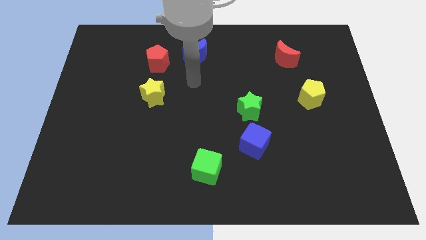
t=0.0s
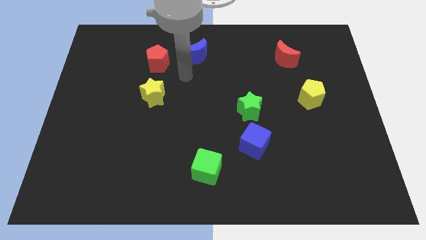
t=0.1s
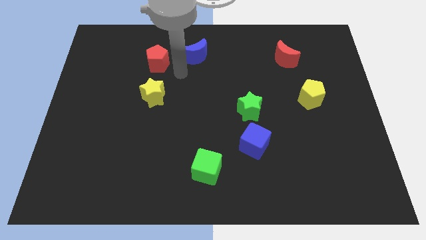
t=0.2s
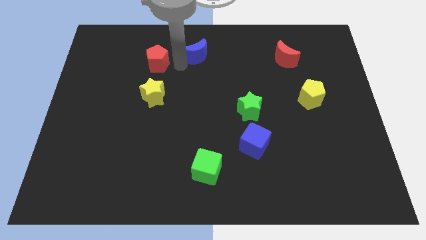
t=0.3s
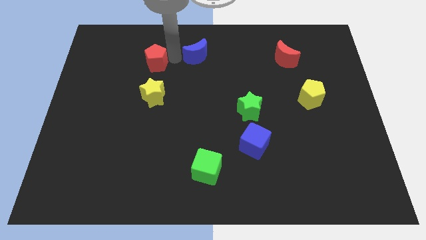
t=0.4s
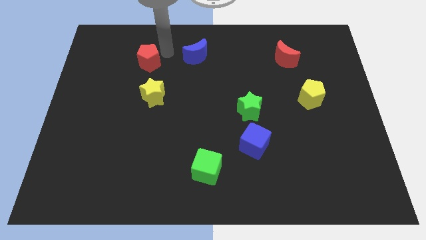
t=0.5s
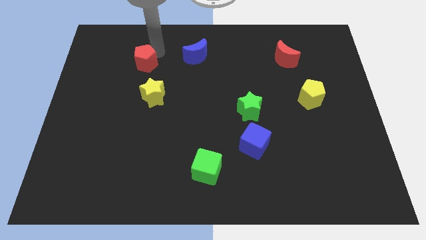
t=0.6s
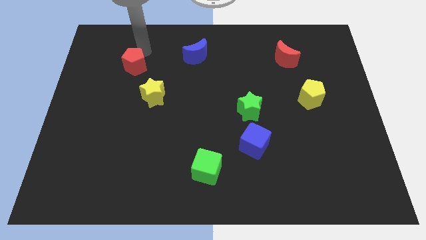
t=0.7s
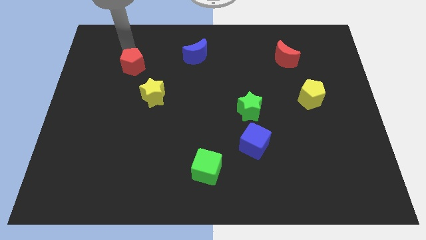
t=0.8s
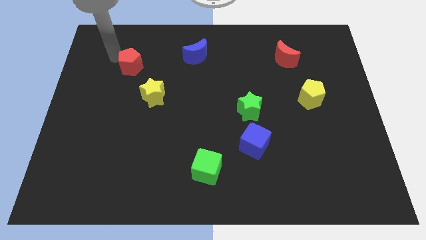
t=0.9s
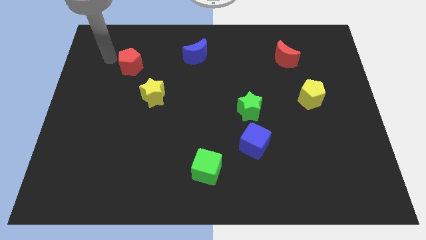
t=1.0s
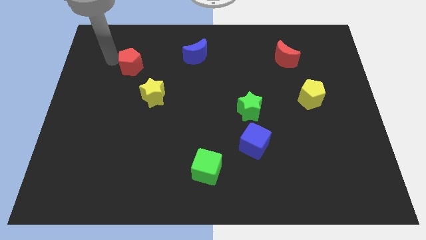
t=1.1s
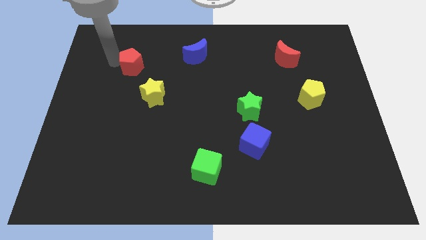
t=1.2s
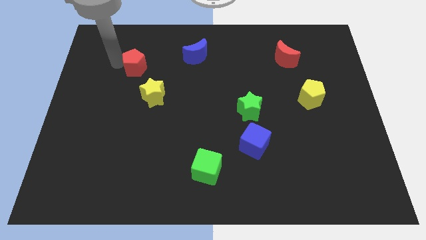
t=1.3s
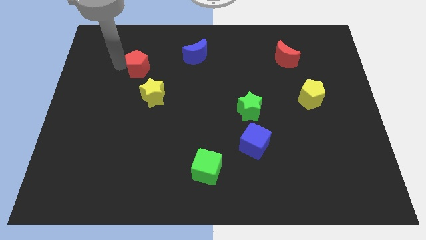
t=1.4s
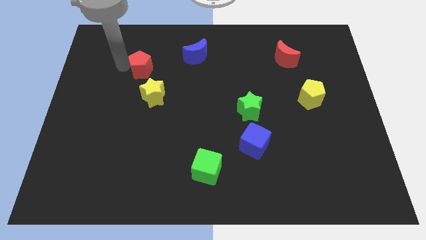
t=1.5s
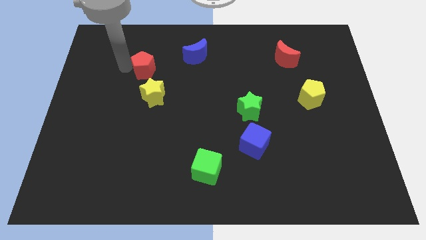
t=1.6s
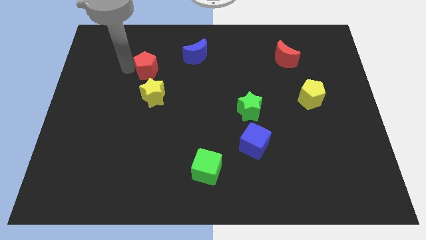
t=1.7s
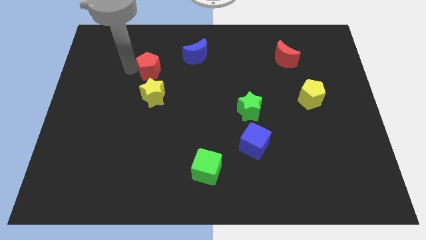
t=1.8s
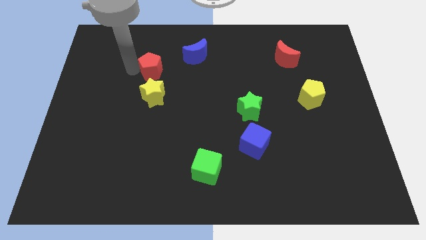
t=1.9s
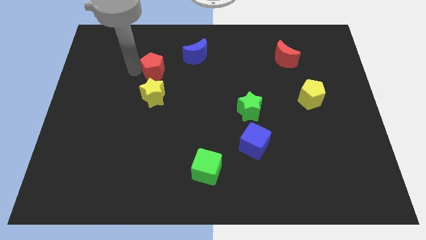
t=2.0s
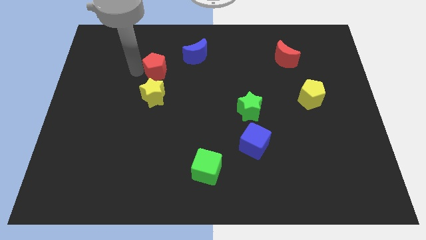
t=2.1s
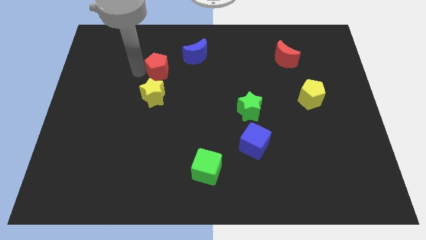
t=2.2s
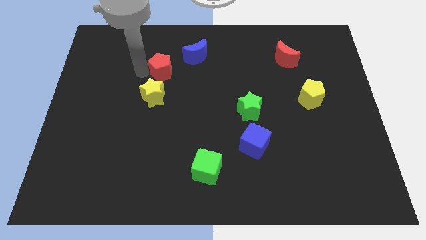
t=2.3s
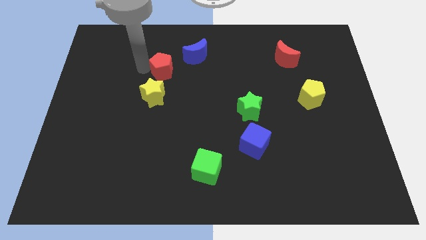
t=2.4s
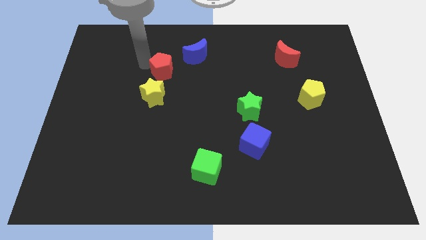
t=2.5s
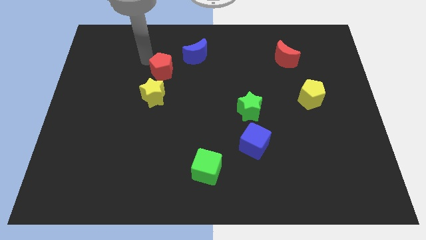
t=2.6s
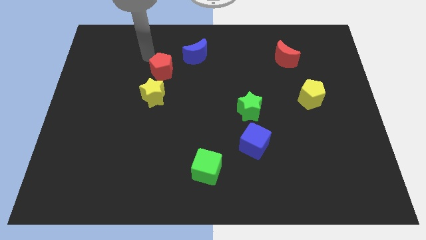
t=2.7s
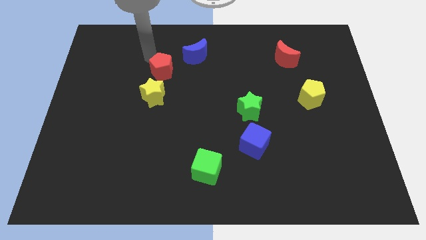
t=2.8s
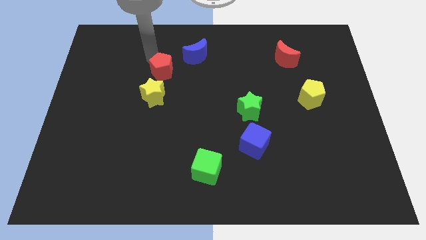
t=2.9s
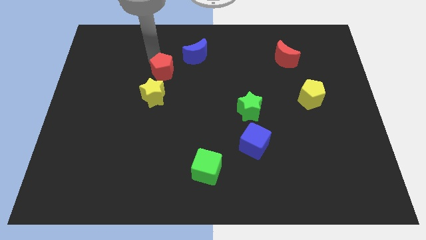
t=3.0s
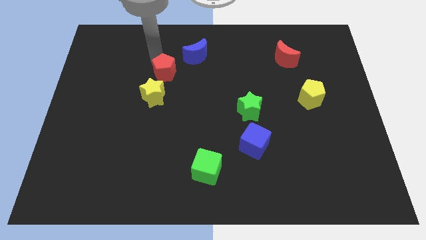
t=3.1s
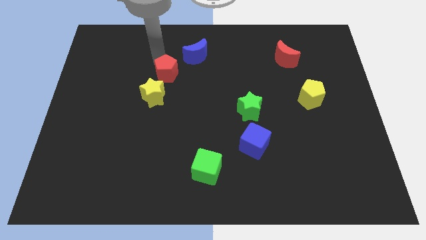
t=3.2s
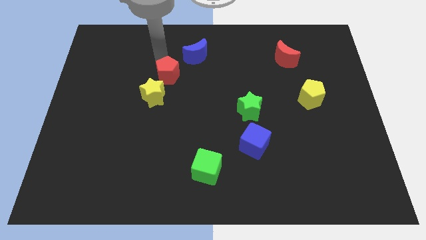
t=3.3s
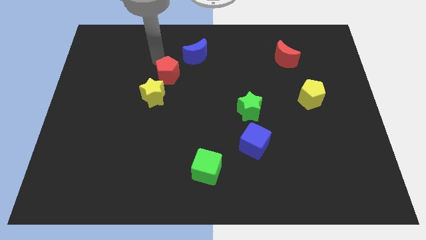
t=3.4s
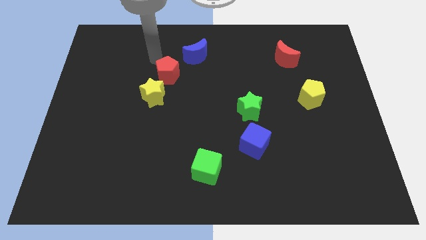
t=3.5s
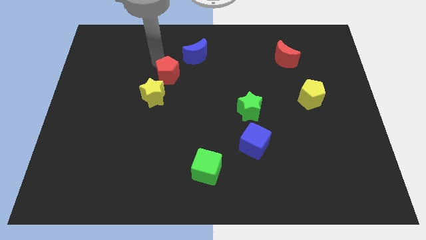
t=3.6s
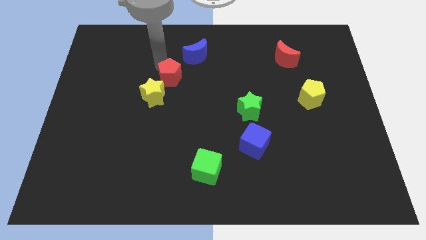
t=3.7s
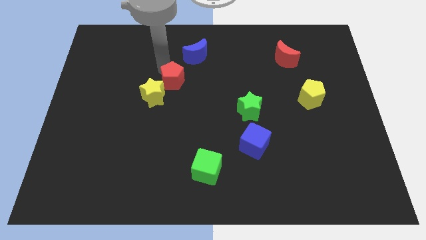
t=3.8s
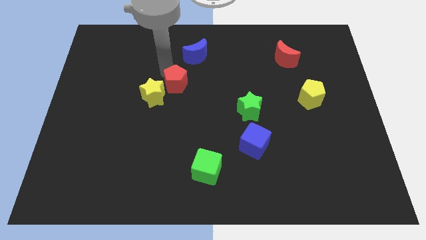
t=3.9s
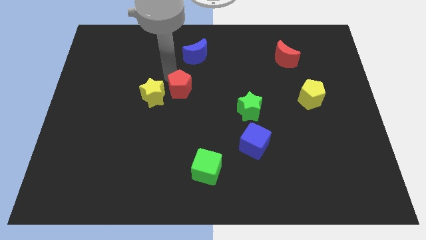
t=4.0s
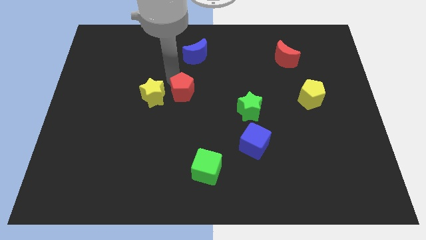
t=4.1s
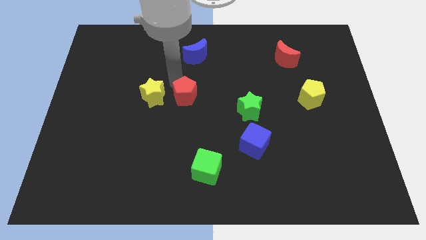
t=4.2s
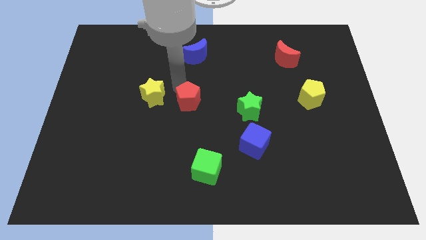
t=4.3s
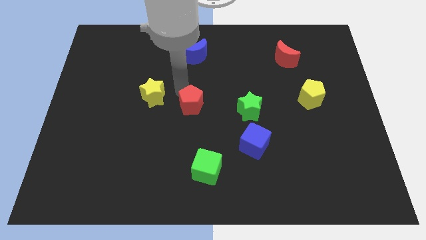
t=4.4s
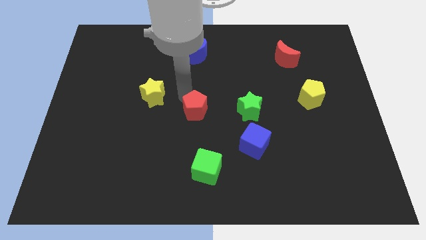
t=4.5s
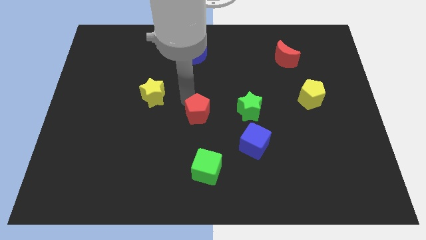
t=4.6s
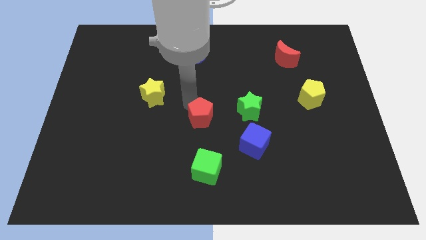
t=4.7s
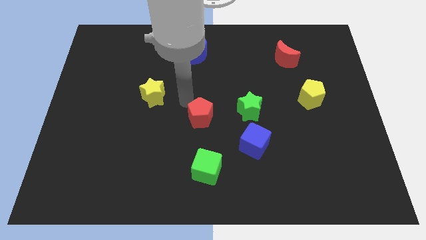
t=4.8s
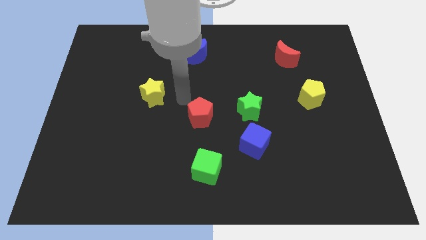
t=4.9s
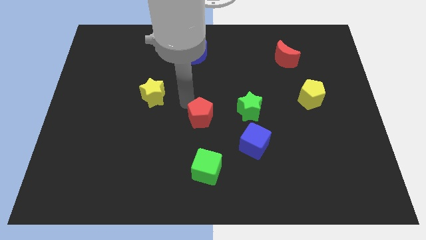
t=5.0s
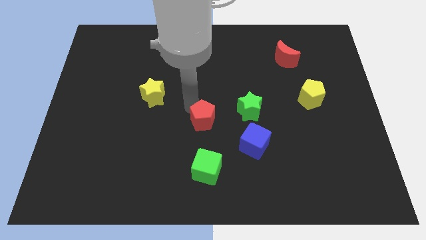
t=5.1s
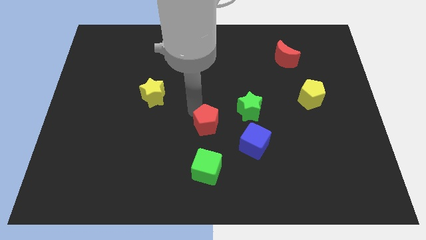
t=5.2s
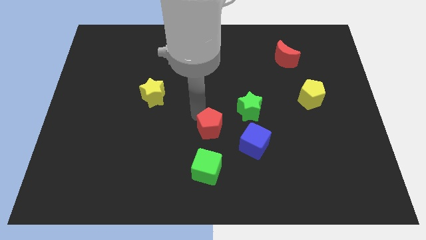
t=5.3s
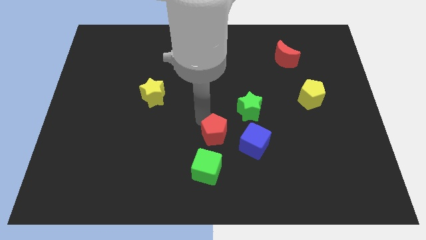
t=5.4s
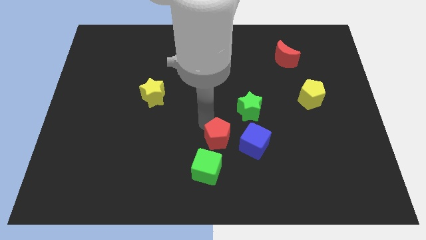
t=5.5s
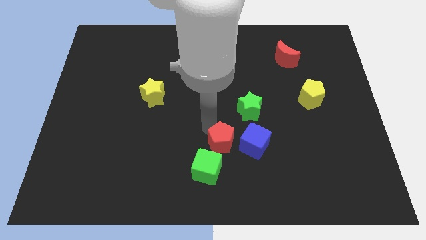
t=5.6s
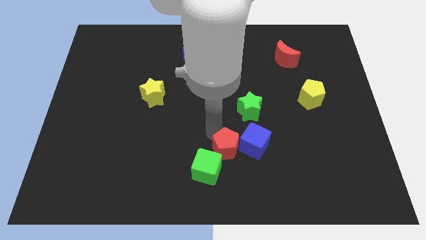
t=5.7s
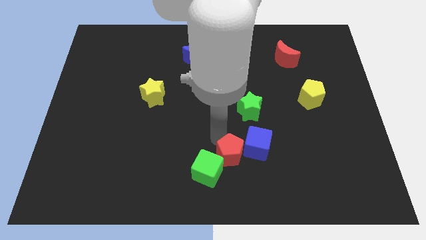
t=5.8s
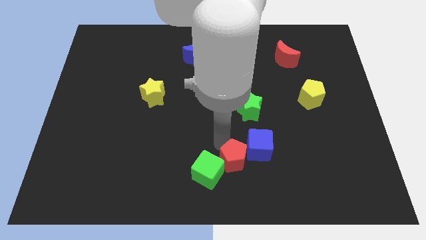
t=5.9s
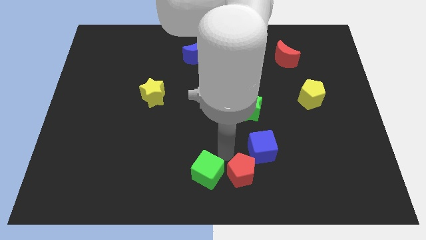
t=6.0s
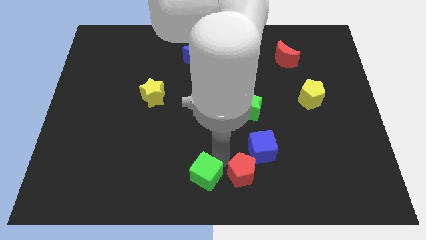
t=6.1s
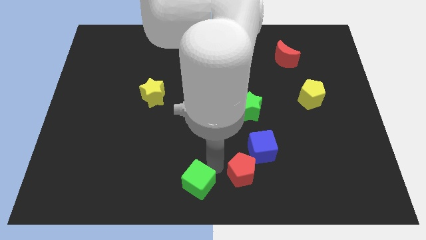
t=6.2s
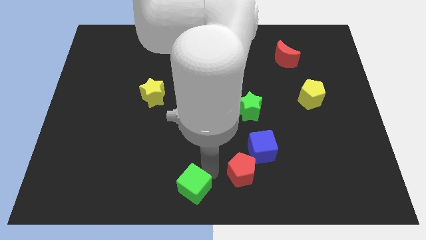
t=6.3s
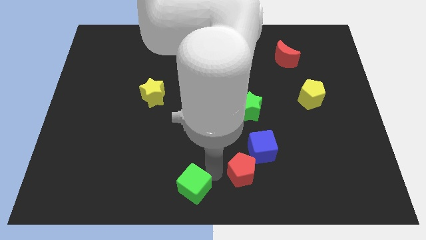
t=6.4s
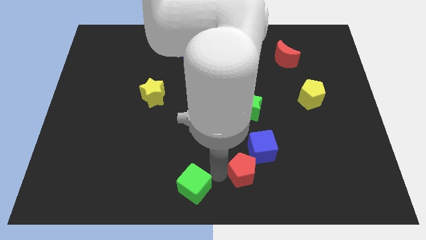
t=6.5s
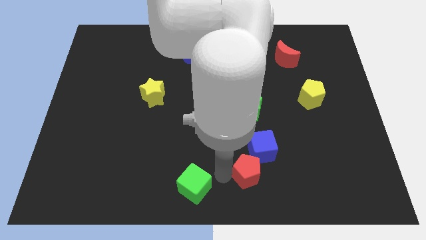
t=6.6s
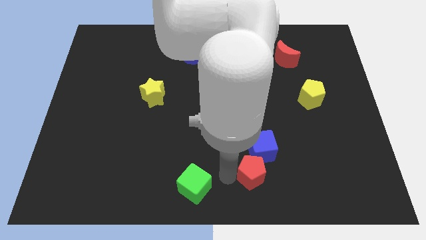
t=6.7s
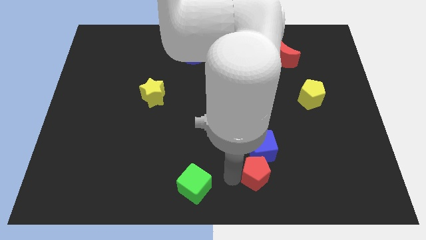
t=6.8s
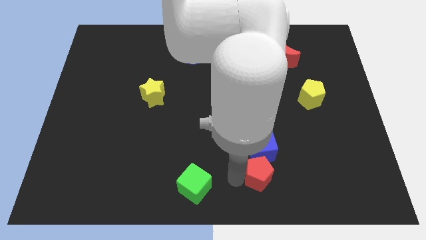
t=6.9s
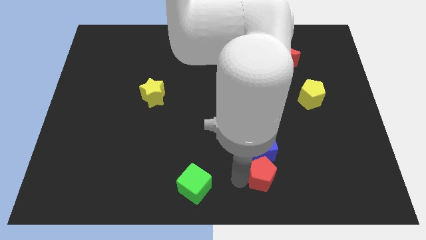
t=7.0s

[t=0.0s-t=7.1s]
push the red pentagon to the bottom right of the blue cube

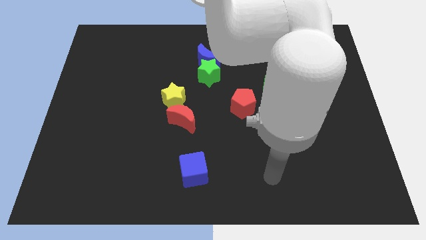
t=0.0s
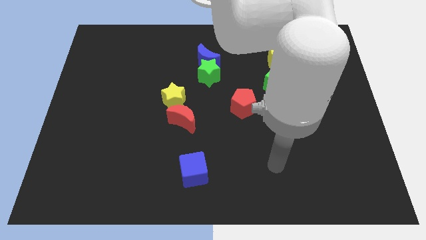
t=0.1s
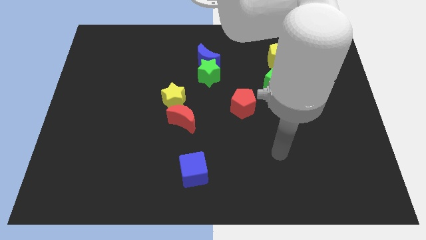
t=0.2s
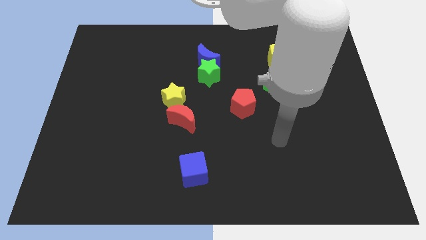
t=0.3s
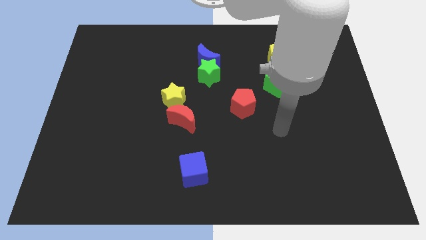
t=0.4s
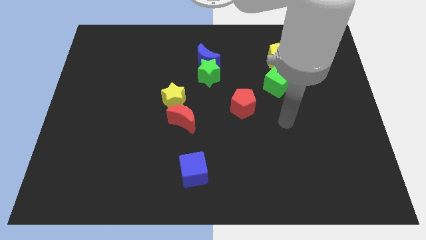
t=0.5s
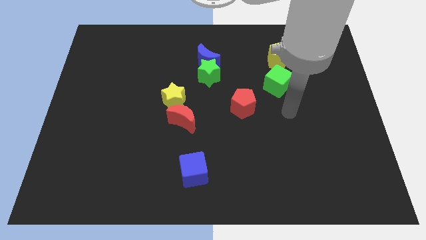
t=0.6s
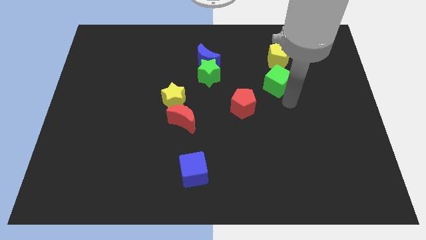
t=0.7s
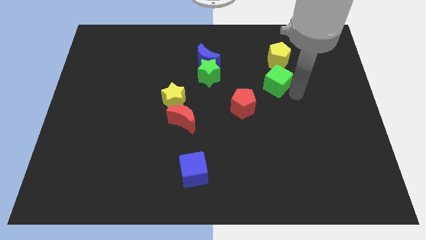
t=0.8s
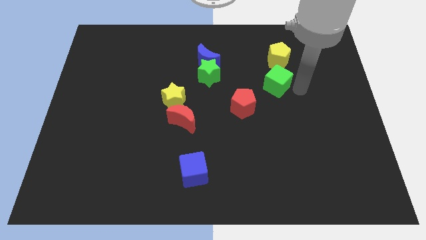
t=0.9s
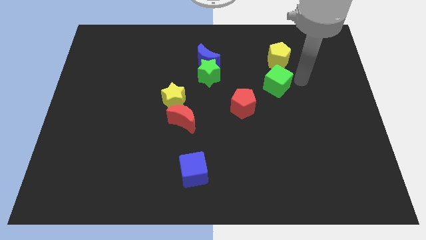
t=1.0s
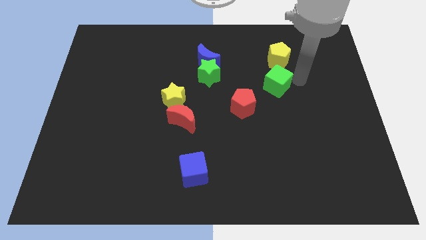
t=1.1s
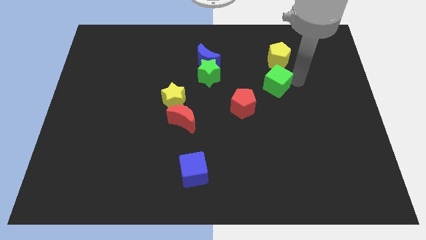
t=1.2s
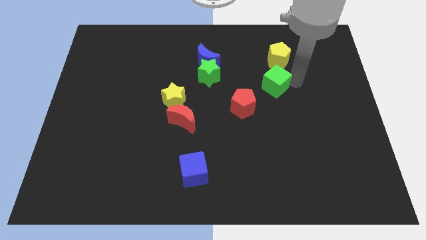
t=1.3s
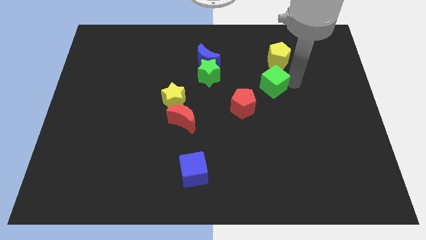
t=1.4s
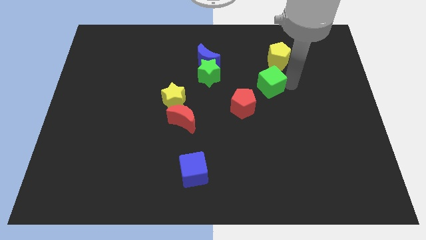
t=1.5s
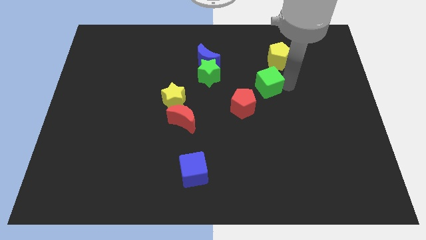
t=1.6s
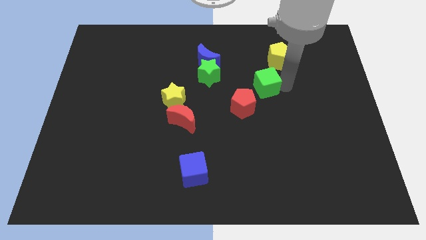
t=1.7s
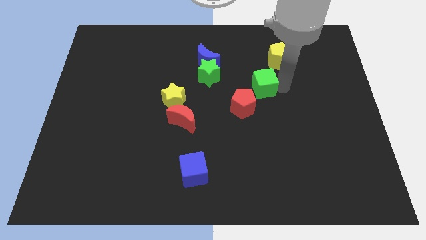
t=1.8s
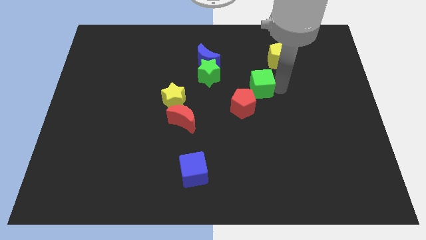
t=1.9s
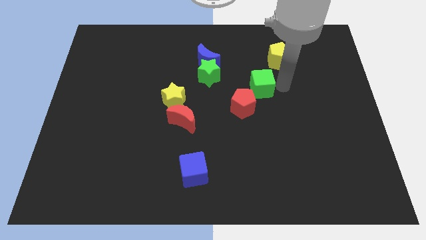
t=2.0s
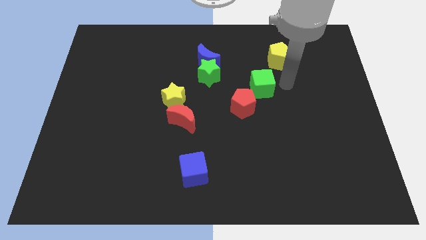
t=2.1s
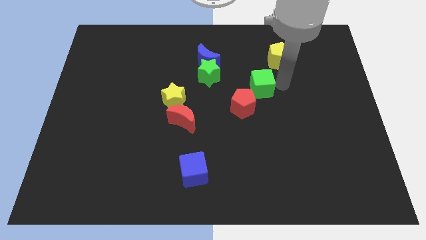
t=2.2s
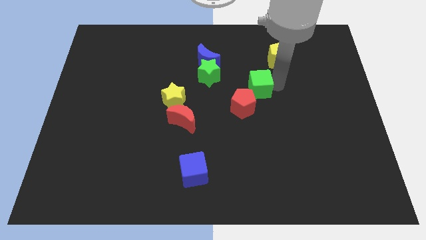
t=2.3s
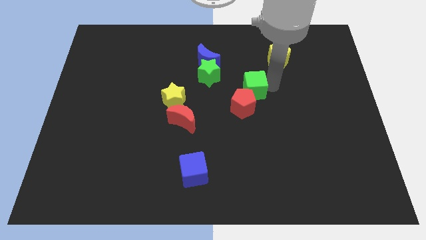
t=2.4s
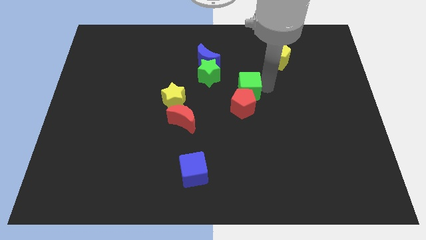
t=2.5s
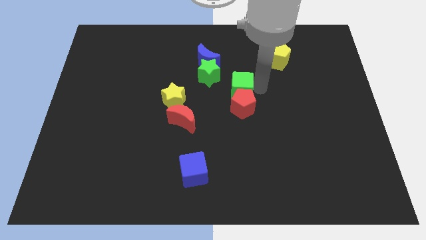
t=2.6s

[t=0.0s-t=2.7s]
push the green cube to the top left side of the red pentagon
